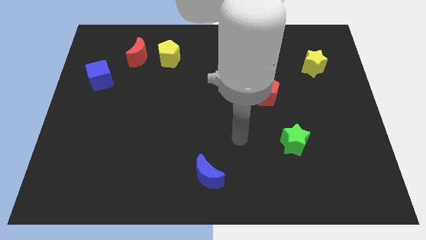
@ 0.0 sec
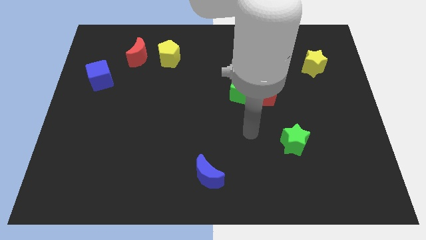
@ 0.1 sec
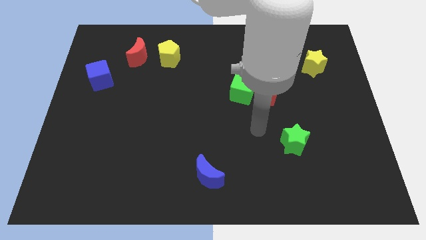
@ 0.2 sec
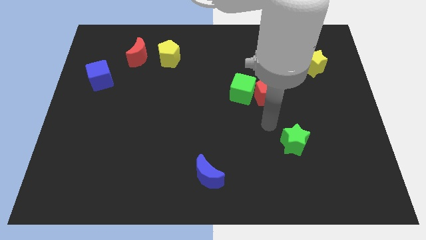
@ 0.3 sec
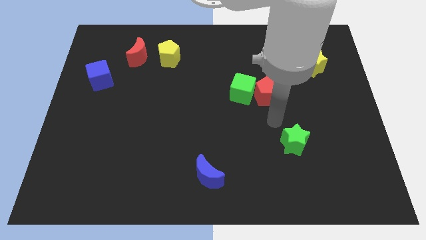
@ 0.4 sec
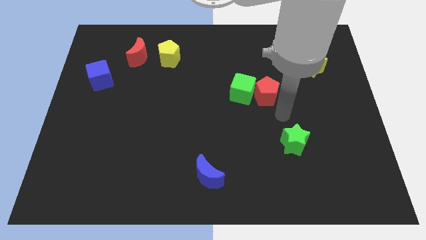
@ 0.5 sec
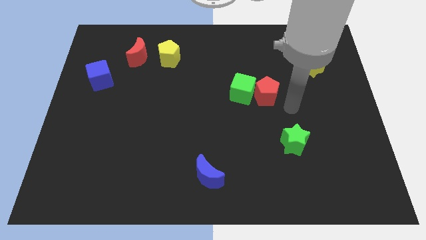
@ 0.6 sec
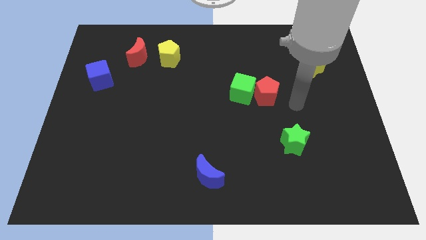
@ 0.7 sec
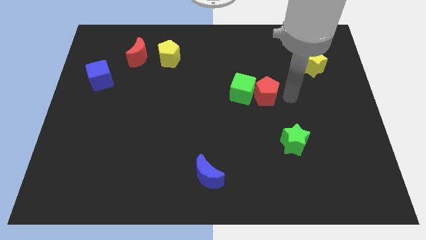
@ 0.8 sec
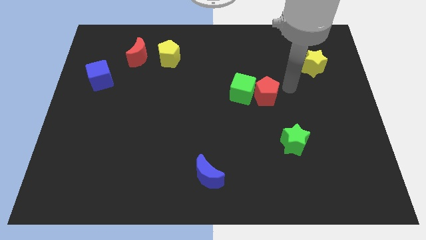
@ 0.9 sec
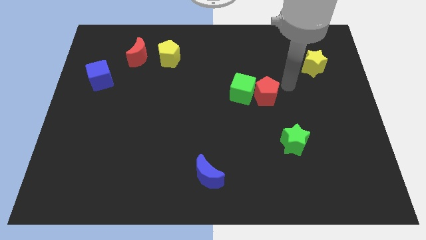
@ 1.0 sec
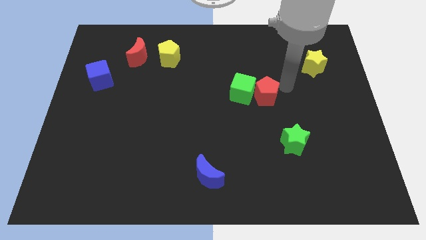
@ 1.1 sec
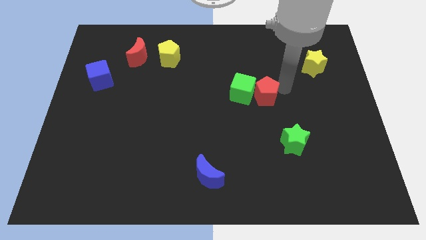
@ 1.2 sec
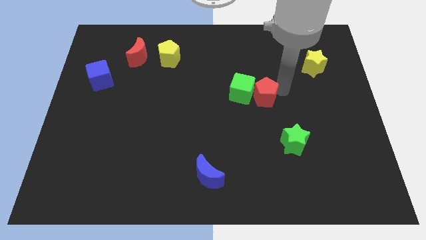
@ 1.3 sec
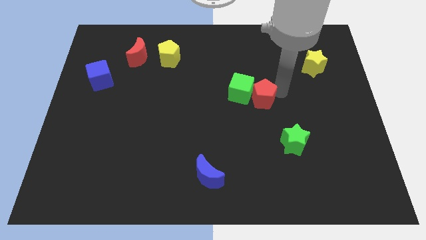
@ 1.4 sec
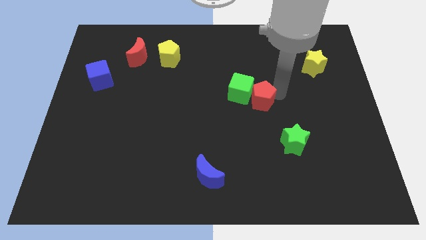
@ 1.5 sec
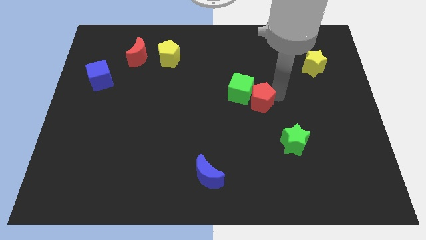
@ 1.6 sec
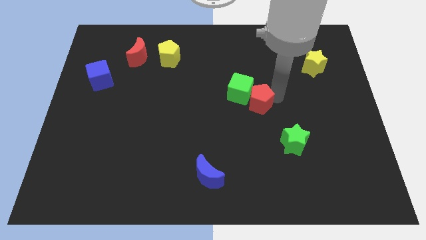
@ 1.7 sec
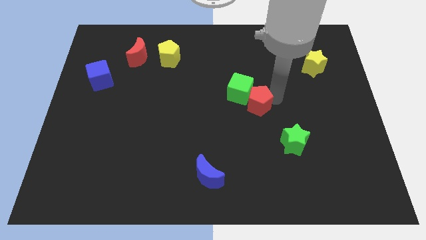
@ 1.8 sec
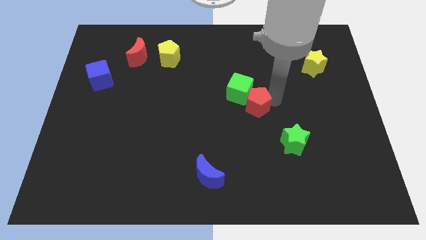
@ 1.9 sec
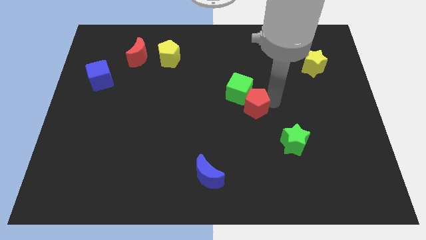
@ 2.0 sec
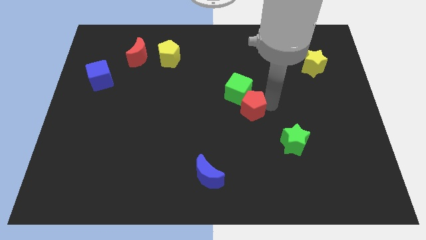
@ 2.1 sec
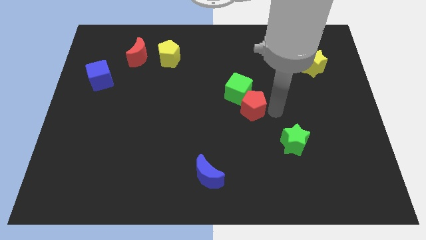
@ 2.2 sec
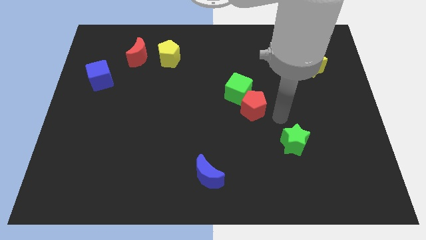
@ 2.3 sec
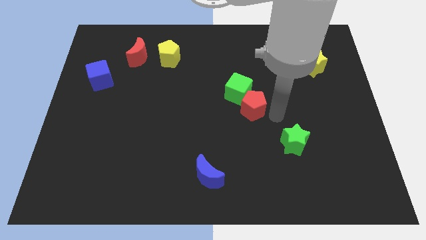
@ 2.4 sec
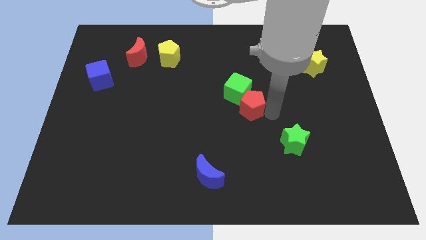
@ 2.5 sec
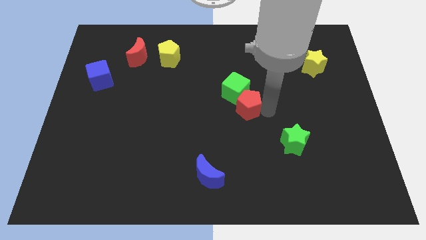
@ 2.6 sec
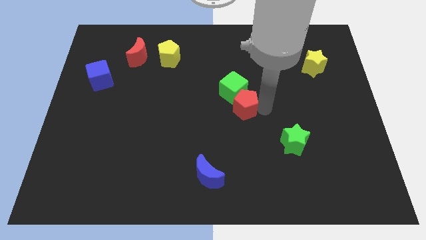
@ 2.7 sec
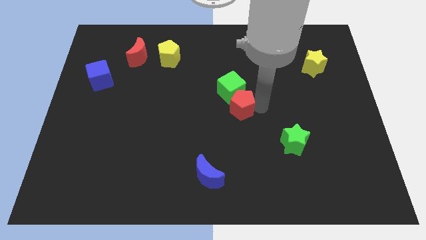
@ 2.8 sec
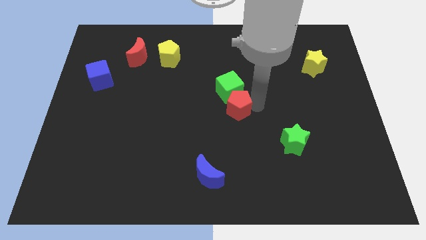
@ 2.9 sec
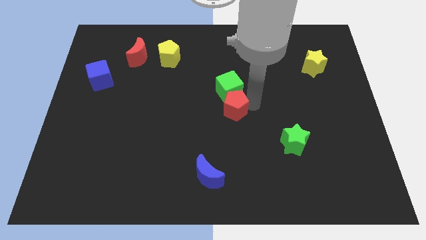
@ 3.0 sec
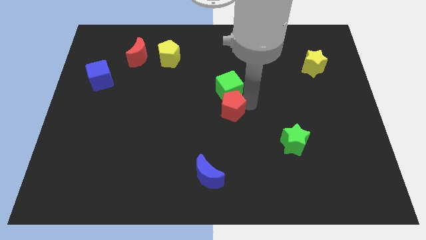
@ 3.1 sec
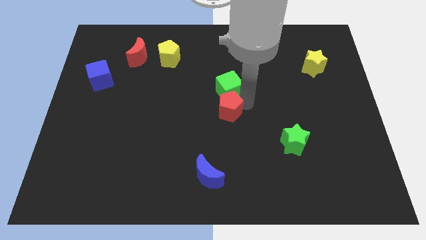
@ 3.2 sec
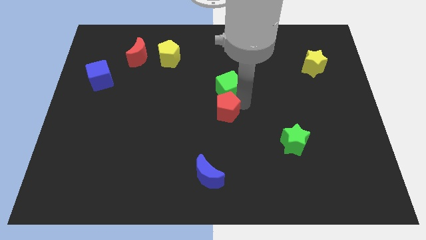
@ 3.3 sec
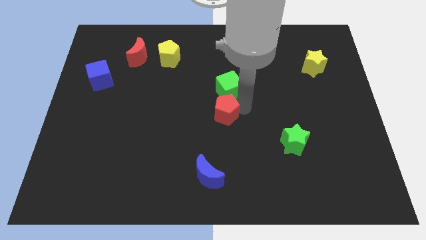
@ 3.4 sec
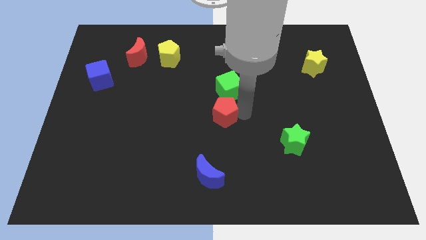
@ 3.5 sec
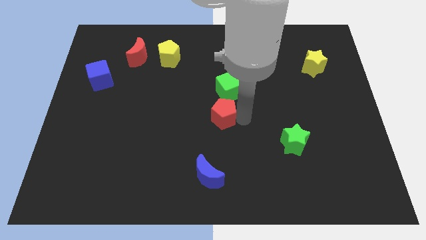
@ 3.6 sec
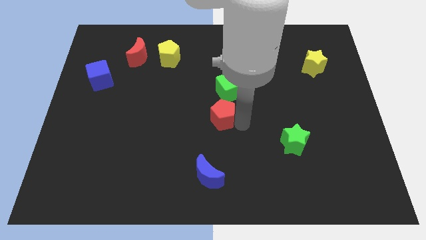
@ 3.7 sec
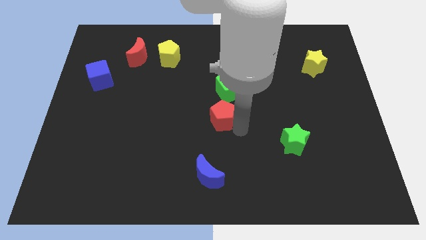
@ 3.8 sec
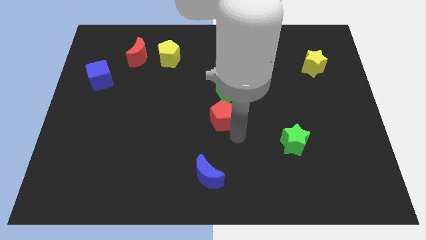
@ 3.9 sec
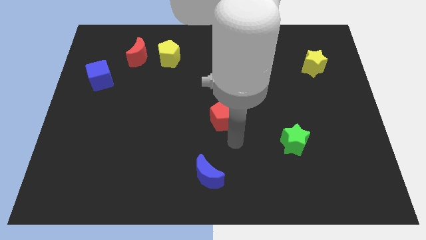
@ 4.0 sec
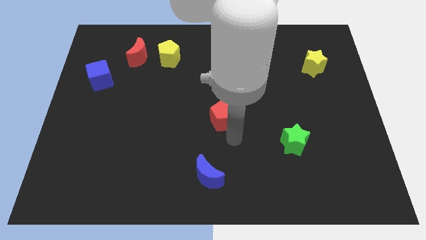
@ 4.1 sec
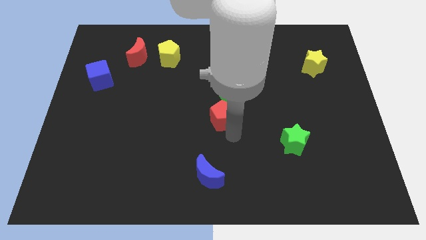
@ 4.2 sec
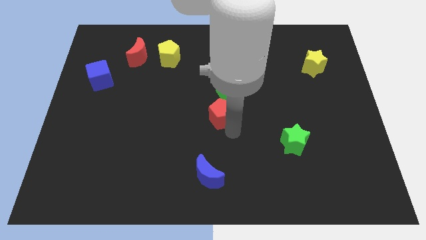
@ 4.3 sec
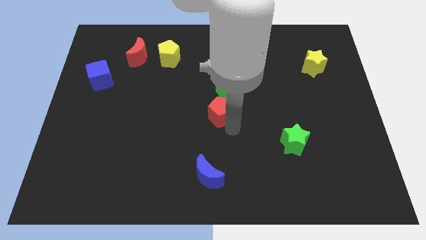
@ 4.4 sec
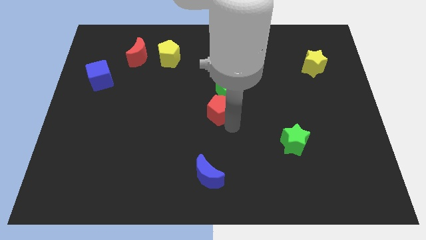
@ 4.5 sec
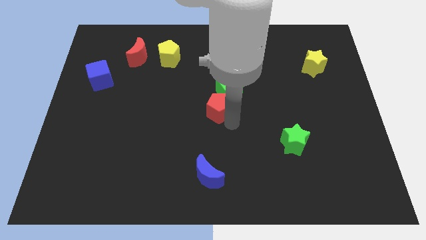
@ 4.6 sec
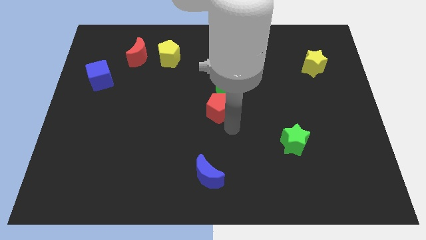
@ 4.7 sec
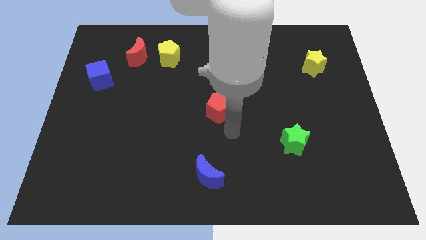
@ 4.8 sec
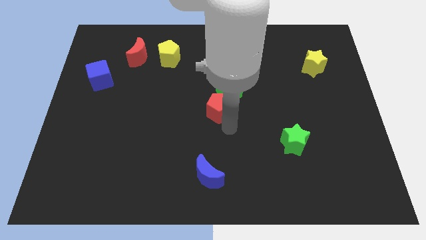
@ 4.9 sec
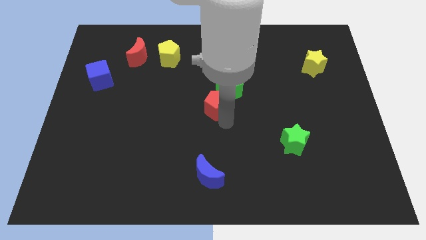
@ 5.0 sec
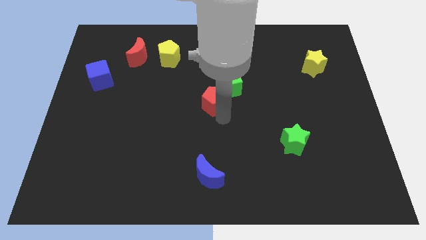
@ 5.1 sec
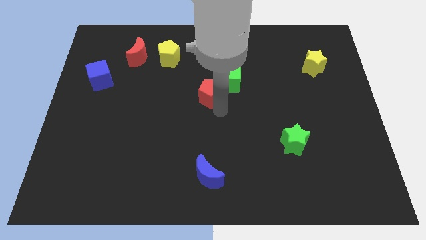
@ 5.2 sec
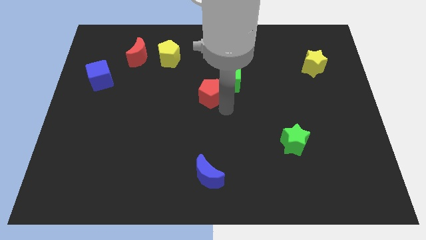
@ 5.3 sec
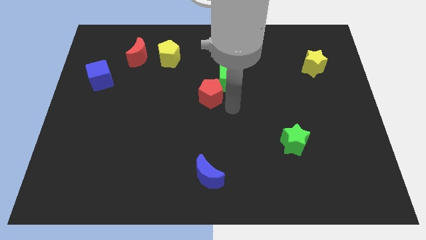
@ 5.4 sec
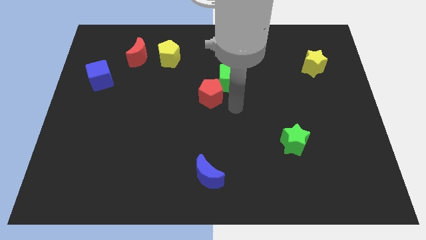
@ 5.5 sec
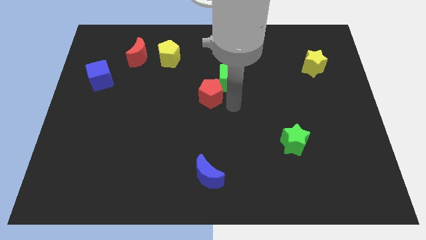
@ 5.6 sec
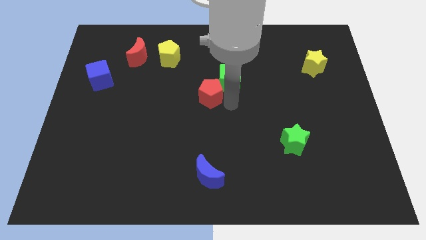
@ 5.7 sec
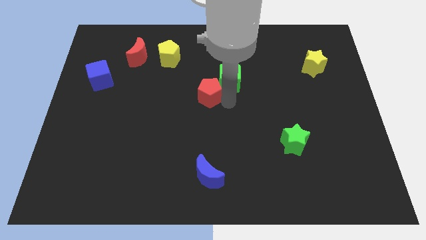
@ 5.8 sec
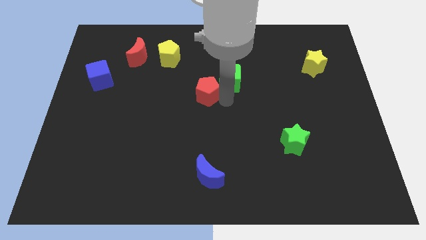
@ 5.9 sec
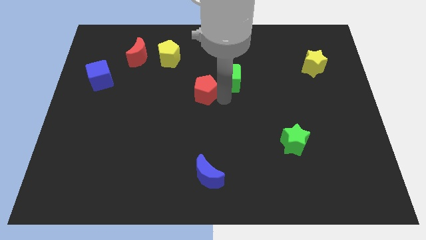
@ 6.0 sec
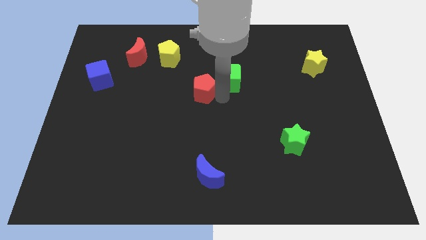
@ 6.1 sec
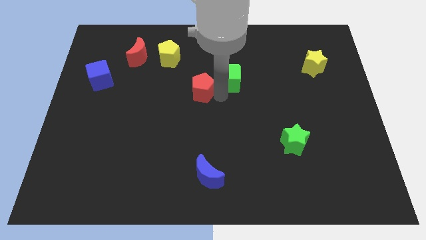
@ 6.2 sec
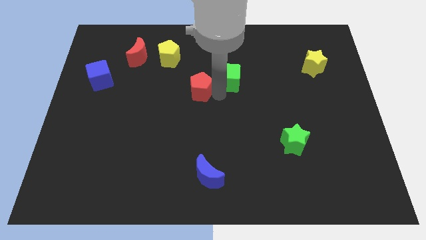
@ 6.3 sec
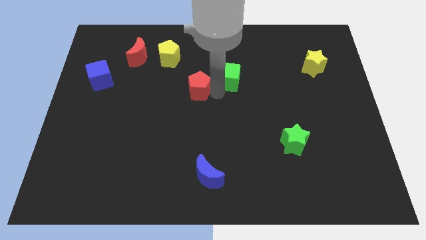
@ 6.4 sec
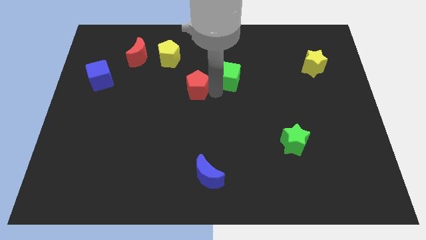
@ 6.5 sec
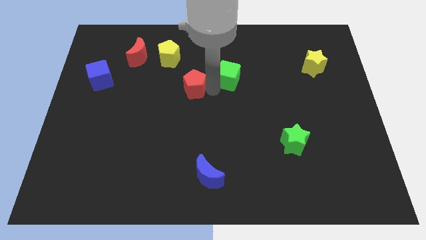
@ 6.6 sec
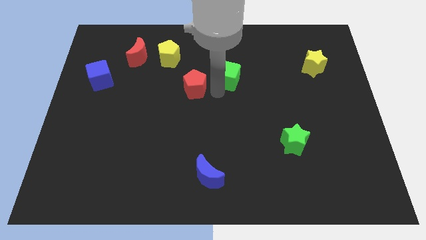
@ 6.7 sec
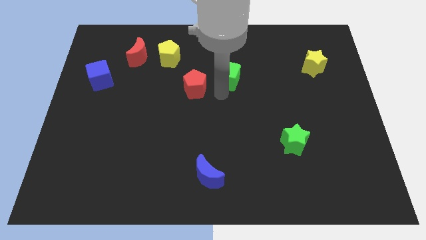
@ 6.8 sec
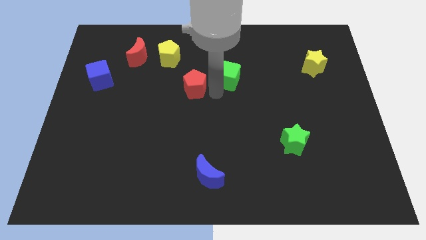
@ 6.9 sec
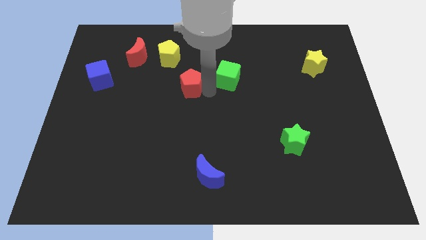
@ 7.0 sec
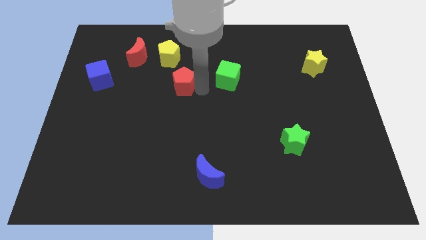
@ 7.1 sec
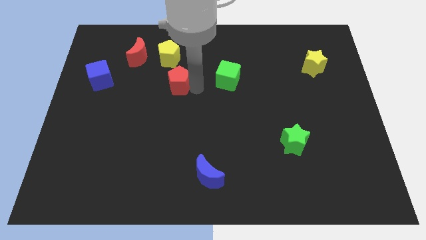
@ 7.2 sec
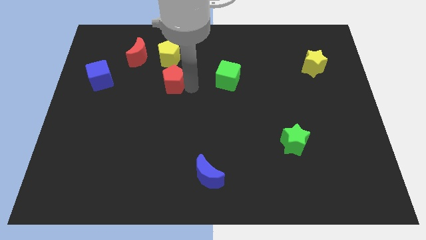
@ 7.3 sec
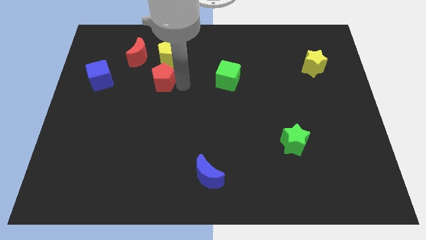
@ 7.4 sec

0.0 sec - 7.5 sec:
put the red pentagon to the right of the blue cube
